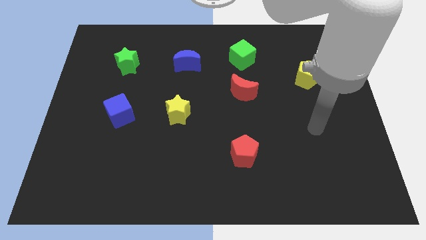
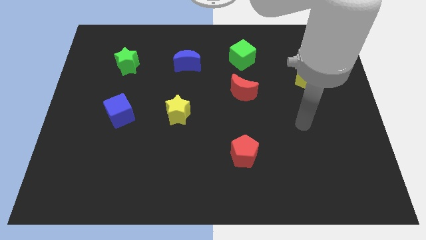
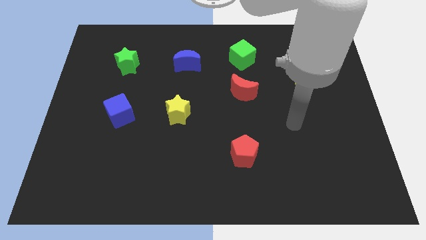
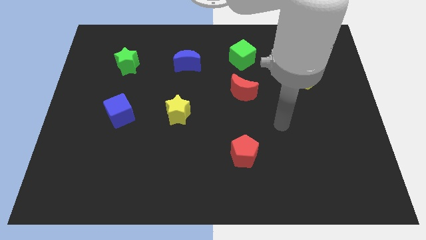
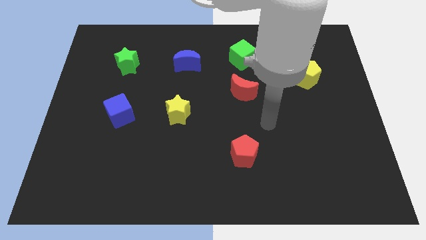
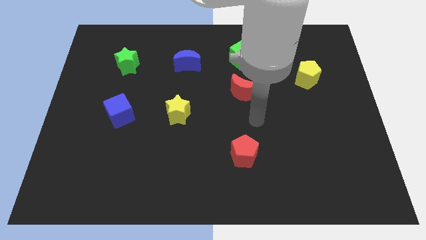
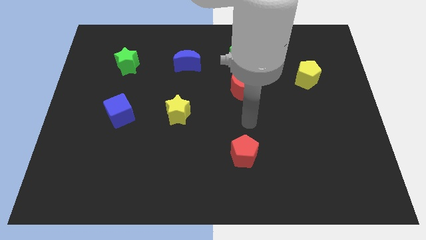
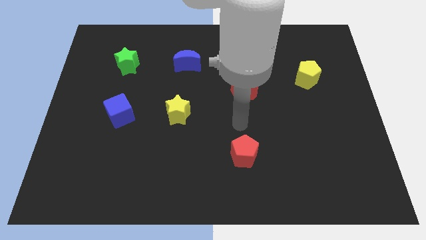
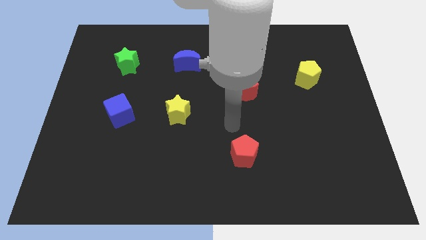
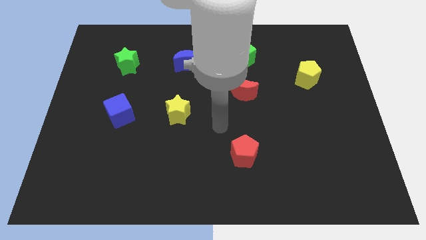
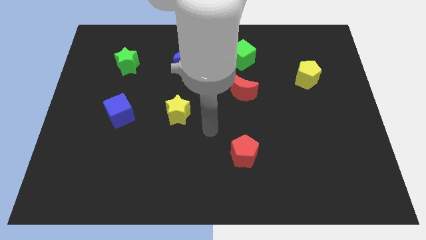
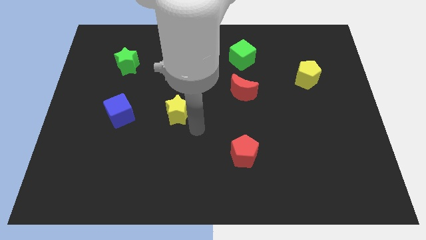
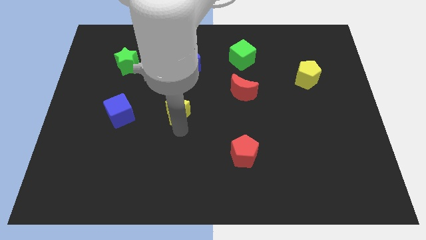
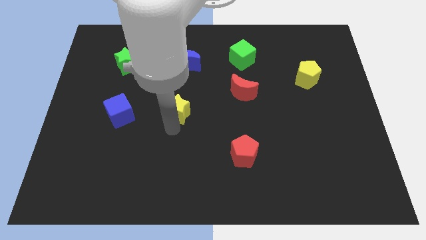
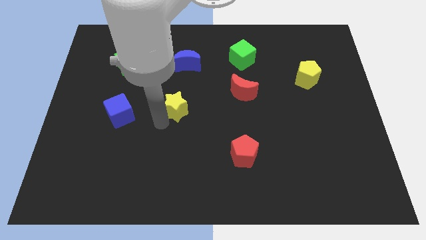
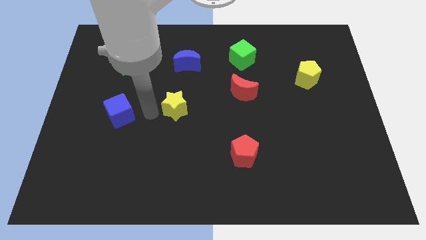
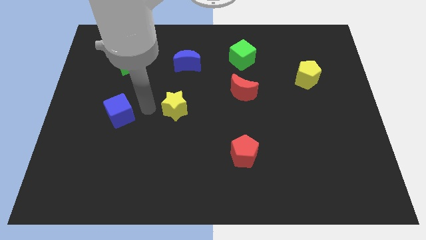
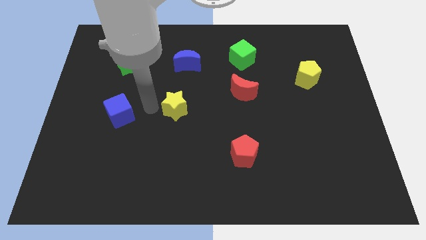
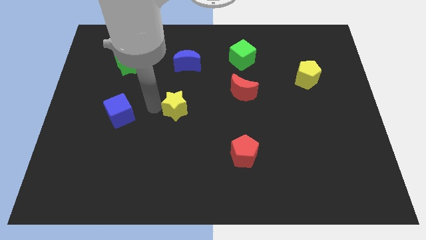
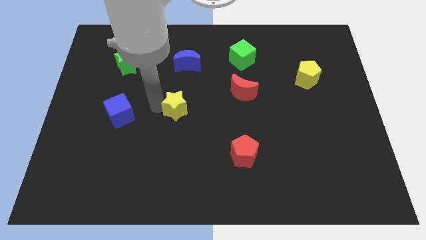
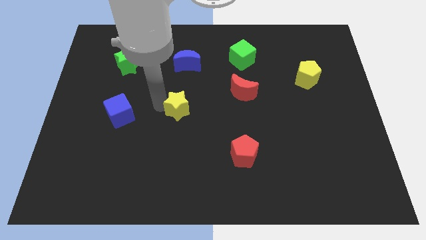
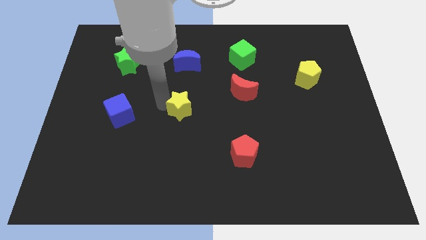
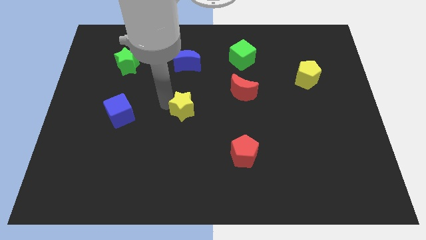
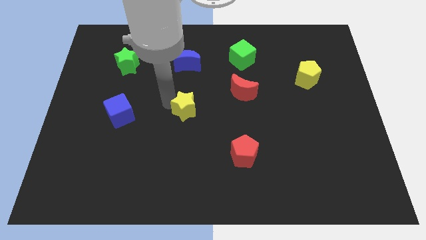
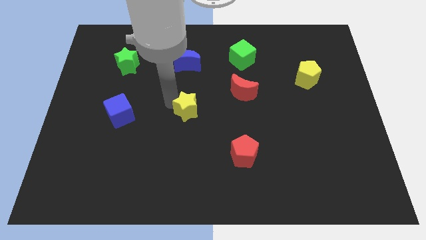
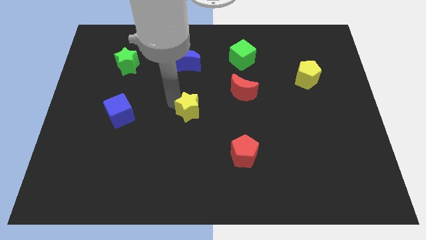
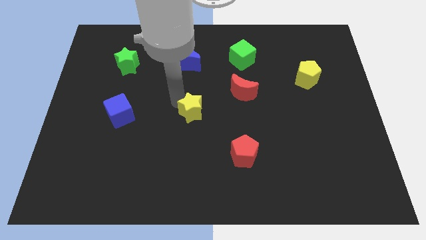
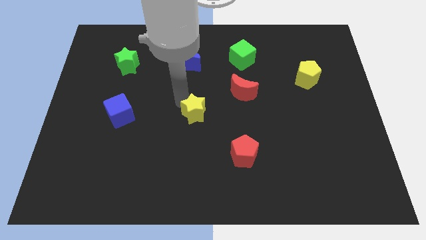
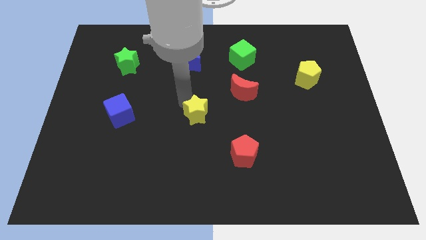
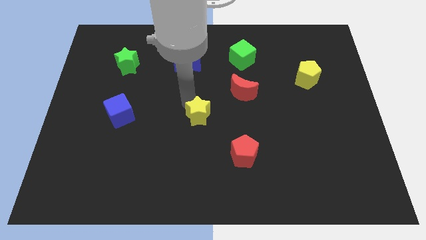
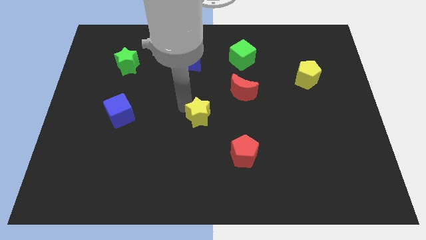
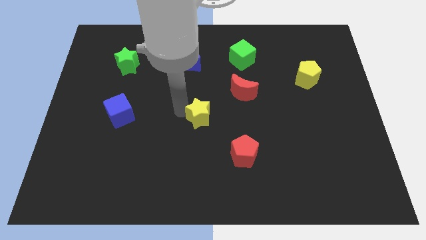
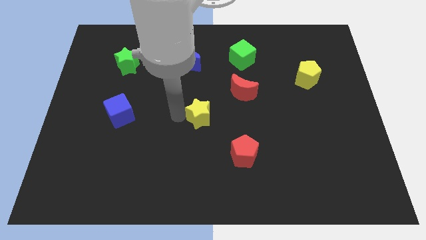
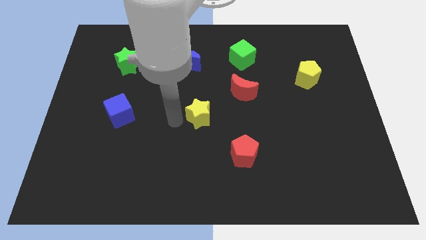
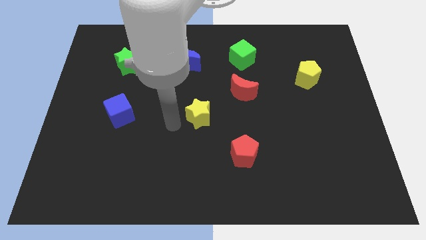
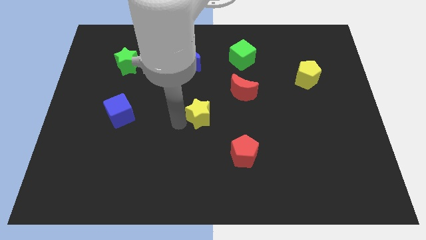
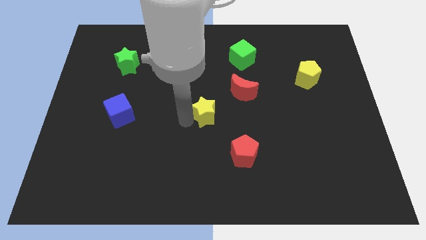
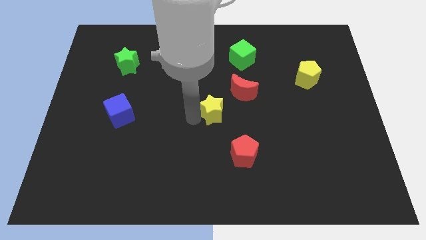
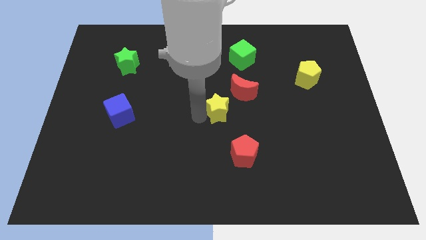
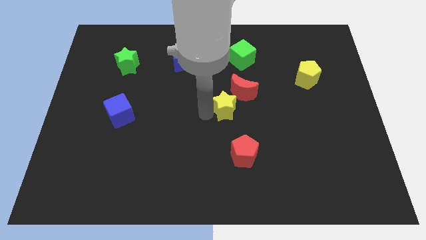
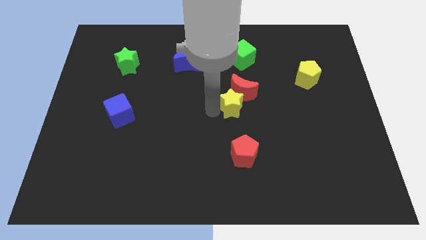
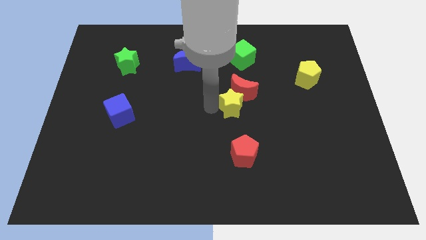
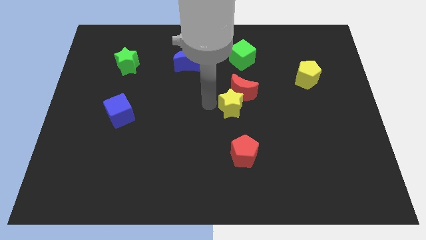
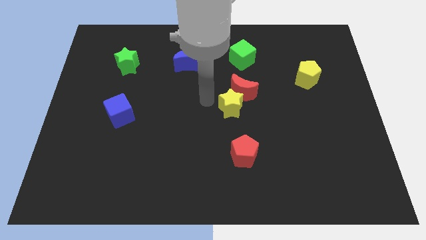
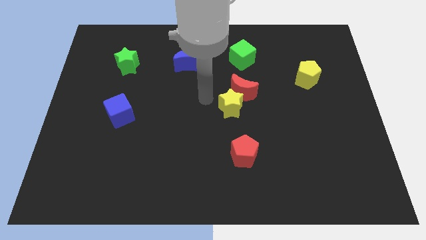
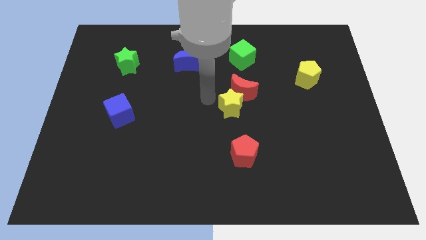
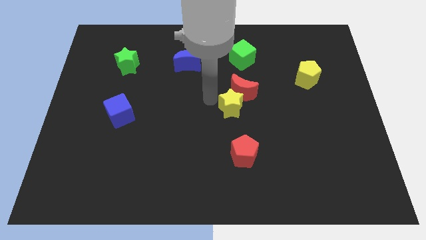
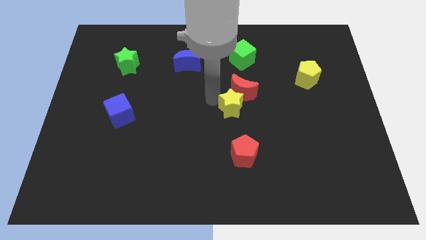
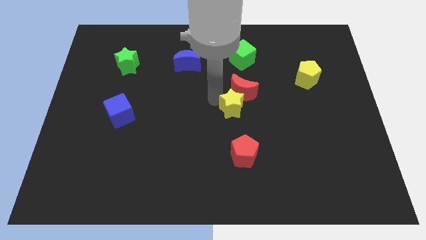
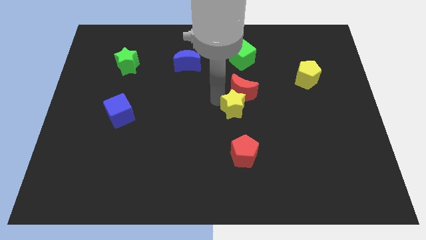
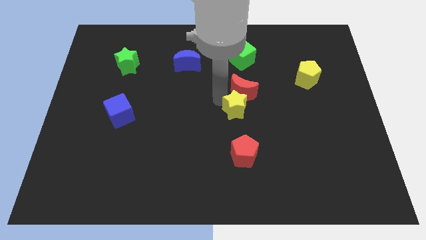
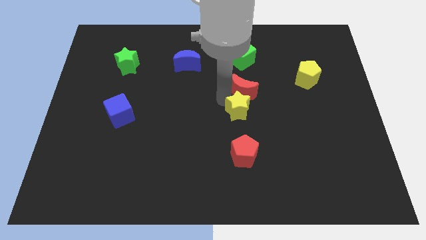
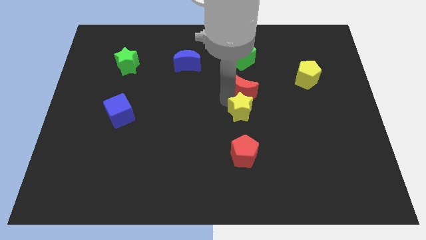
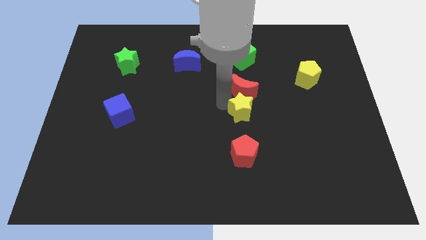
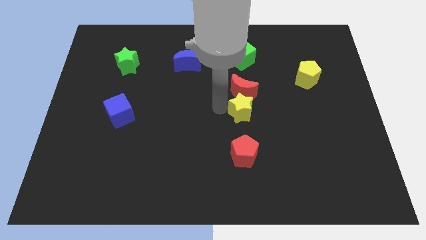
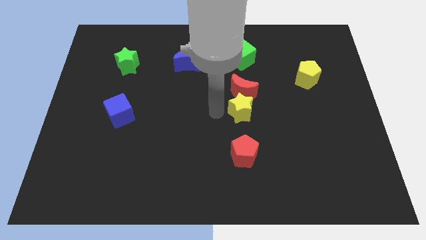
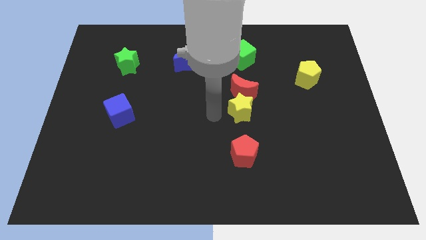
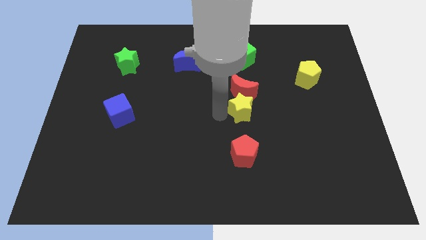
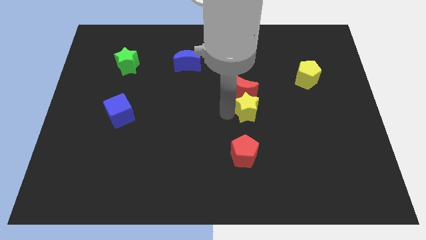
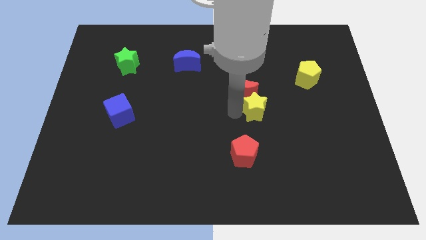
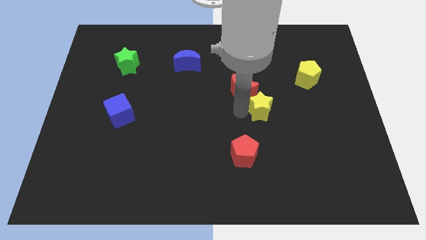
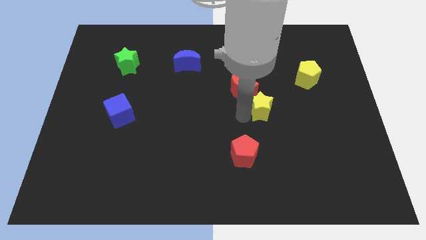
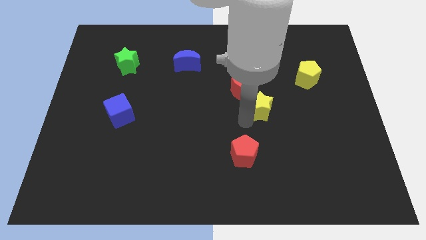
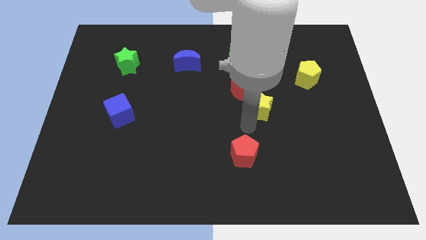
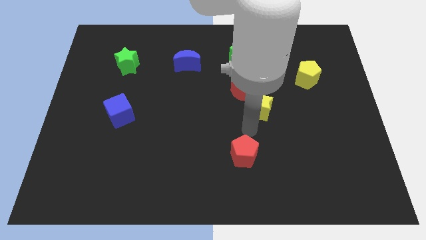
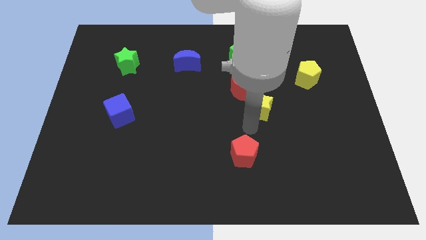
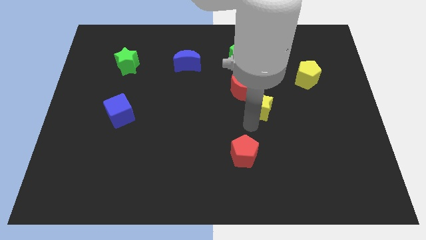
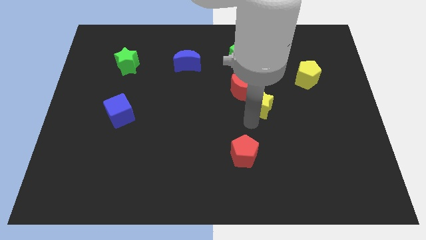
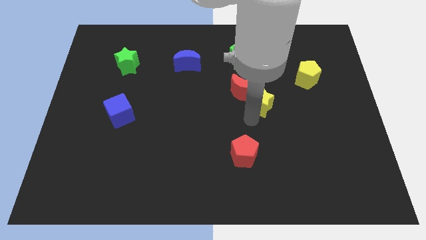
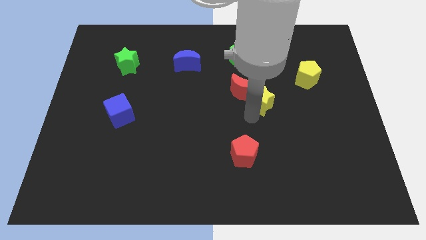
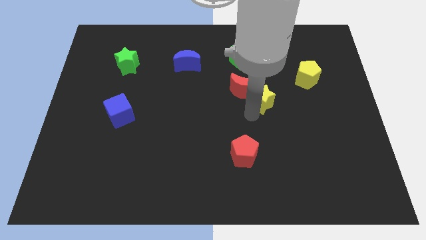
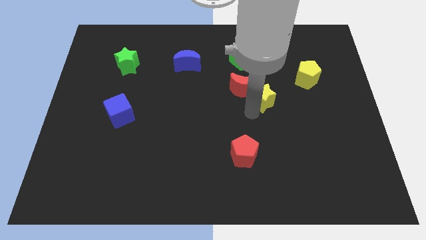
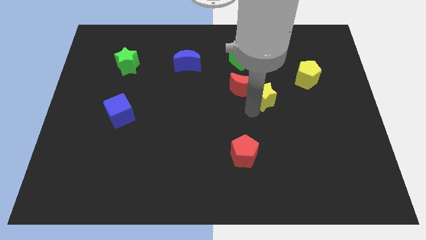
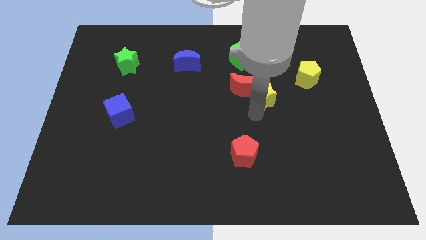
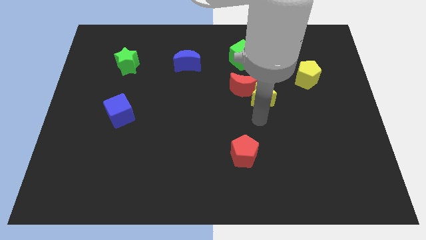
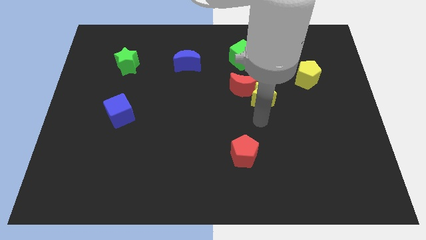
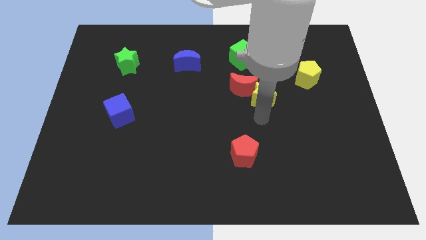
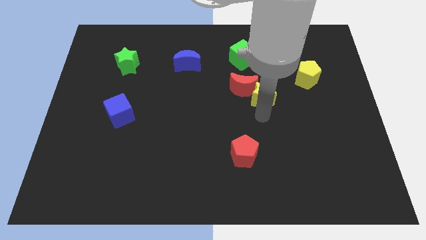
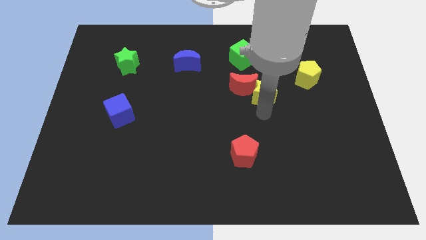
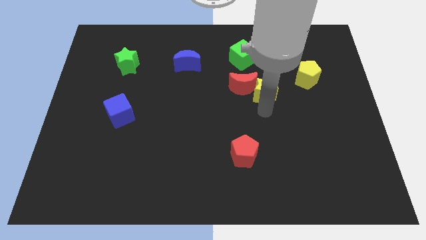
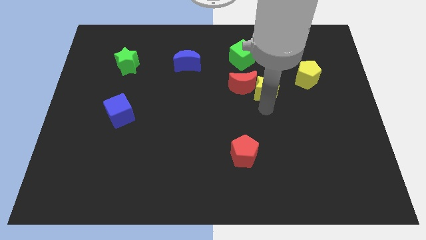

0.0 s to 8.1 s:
slide the yellow star to the left side of the yellow pentagon
